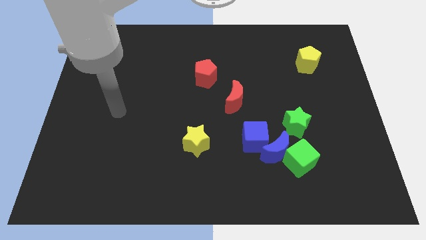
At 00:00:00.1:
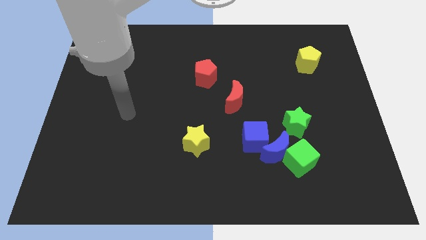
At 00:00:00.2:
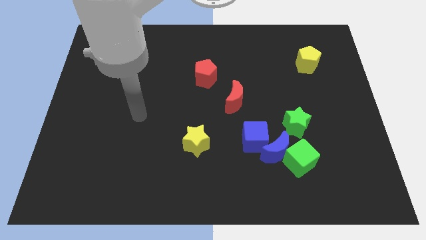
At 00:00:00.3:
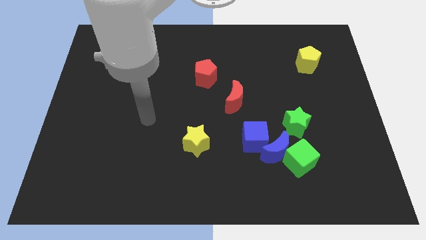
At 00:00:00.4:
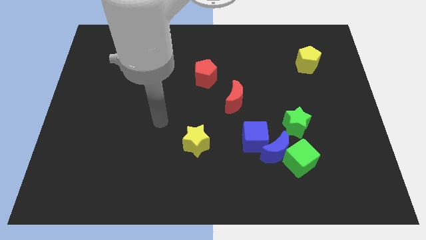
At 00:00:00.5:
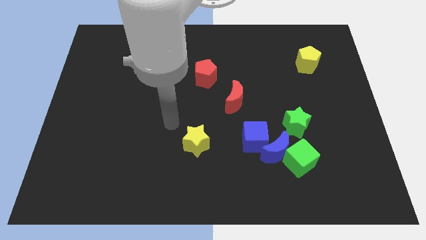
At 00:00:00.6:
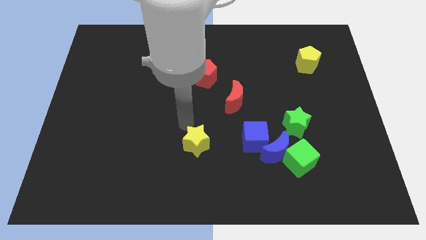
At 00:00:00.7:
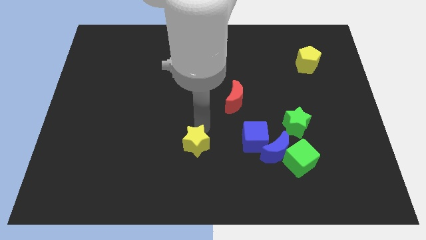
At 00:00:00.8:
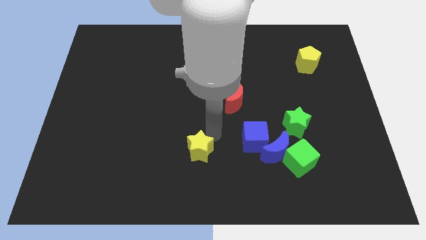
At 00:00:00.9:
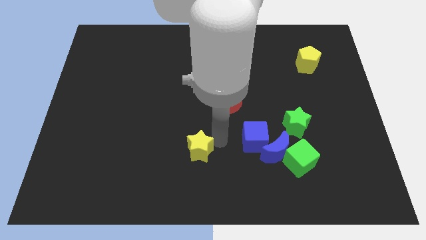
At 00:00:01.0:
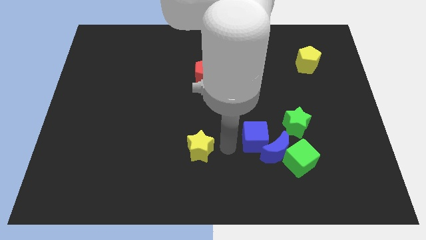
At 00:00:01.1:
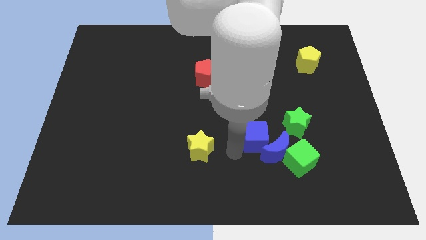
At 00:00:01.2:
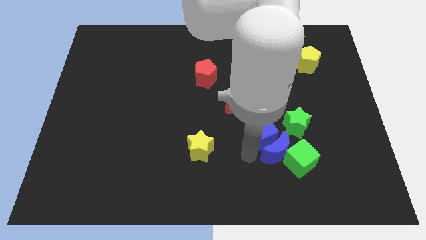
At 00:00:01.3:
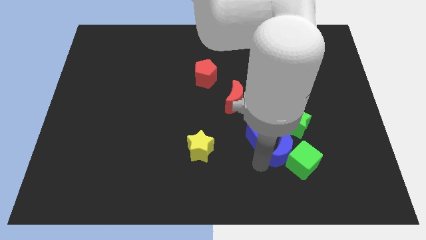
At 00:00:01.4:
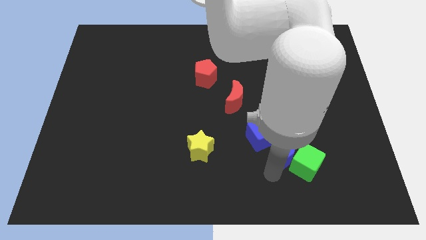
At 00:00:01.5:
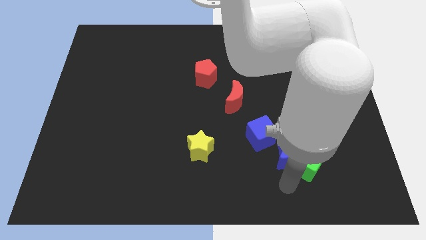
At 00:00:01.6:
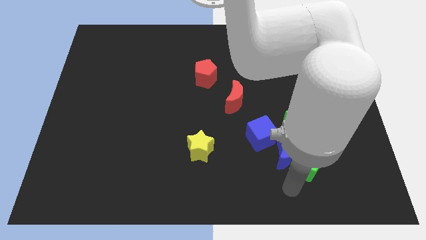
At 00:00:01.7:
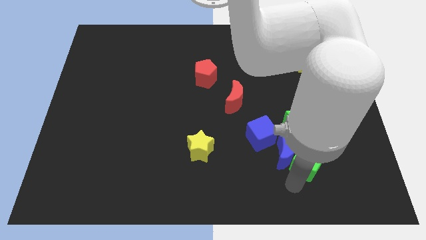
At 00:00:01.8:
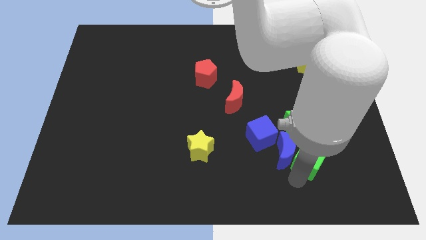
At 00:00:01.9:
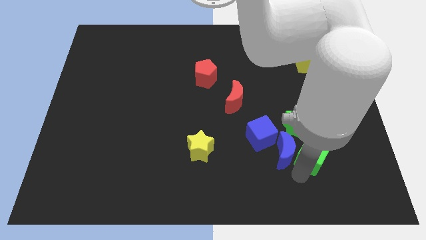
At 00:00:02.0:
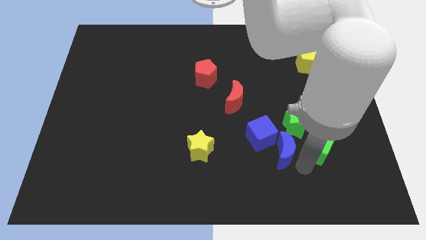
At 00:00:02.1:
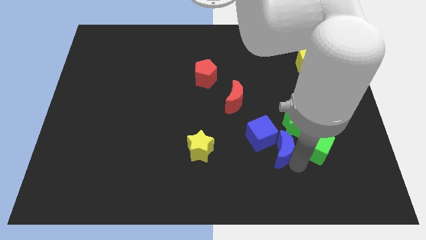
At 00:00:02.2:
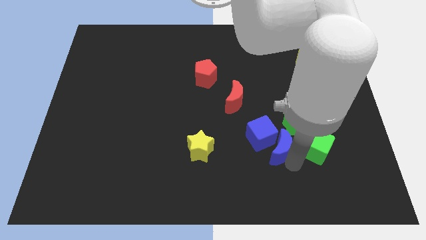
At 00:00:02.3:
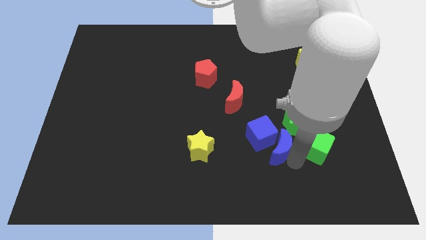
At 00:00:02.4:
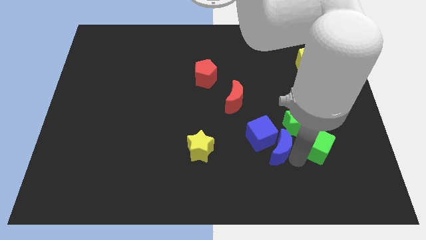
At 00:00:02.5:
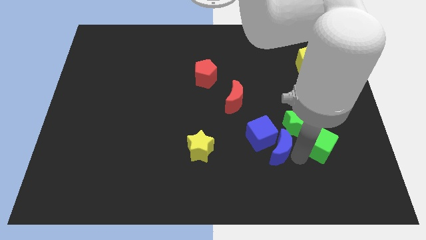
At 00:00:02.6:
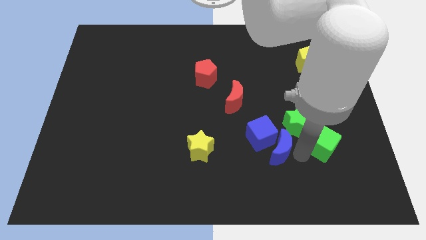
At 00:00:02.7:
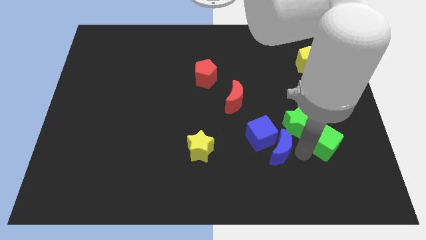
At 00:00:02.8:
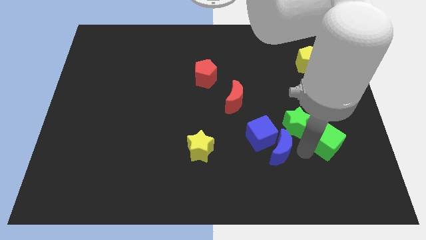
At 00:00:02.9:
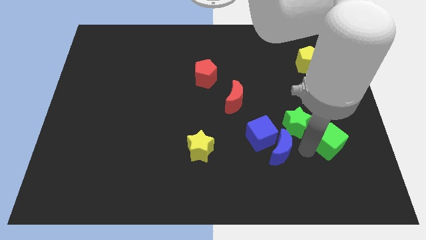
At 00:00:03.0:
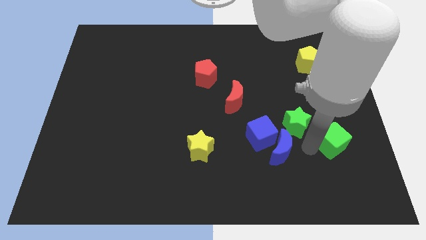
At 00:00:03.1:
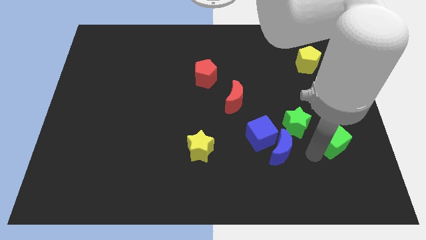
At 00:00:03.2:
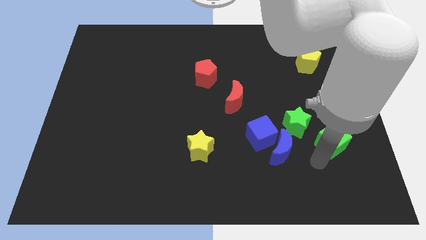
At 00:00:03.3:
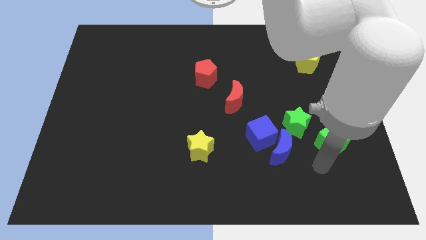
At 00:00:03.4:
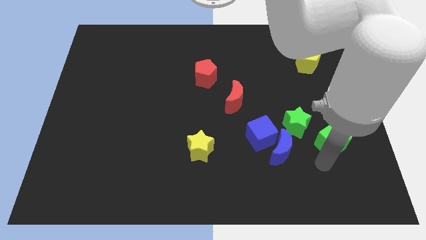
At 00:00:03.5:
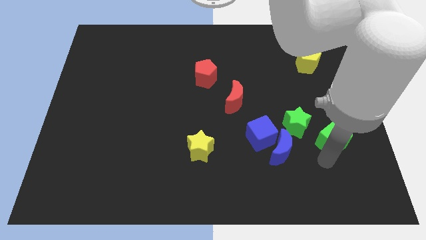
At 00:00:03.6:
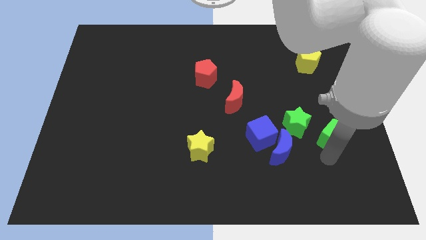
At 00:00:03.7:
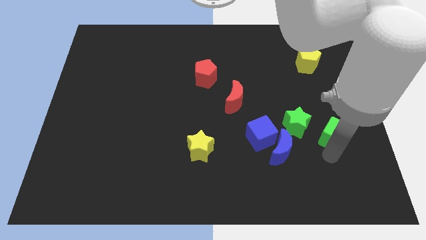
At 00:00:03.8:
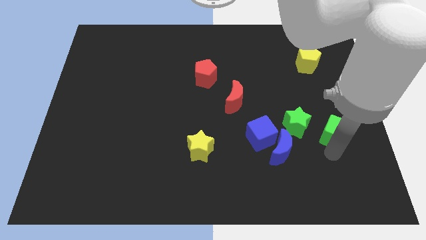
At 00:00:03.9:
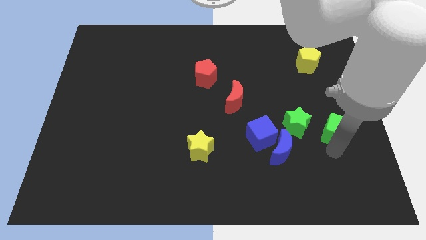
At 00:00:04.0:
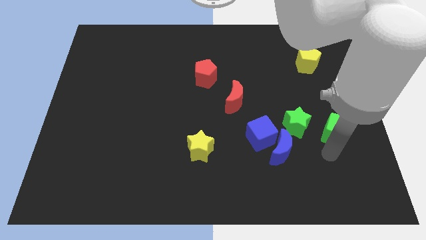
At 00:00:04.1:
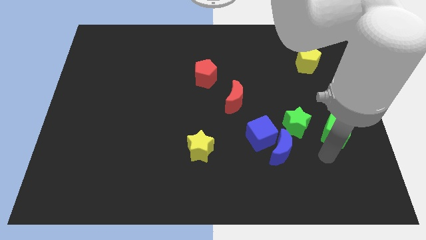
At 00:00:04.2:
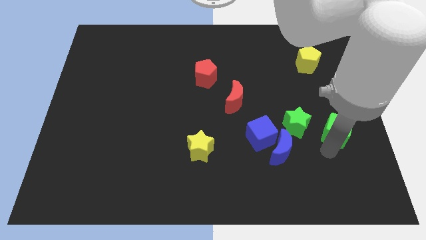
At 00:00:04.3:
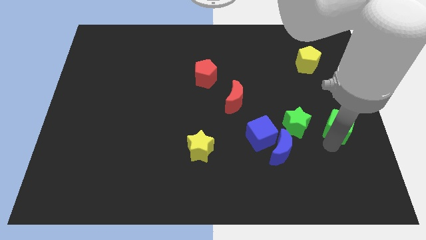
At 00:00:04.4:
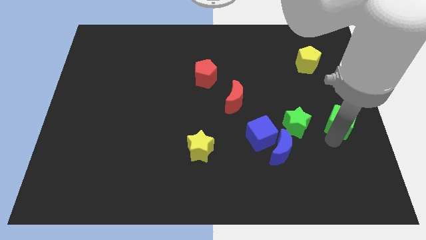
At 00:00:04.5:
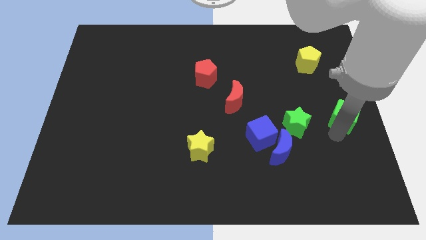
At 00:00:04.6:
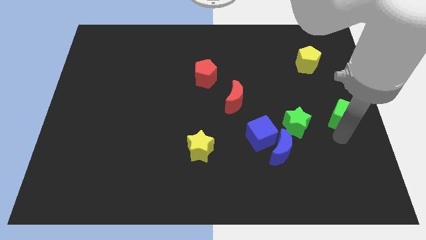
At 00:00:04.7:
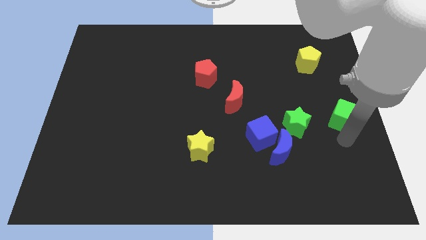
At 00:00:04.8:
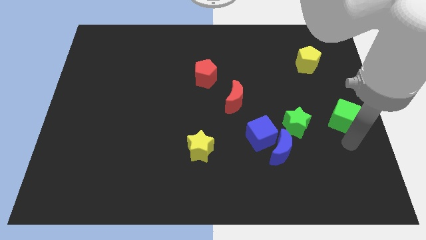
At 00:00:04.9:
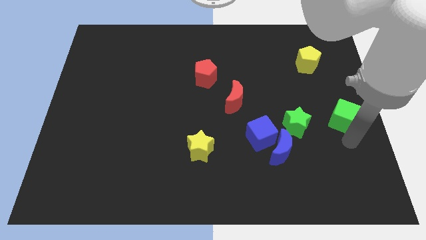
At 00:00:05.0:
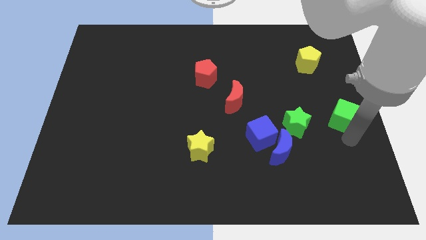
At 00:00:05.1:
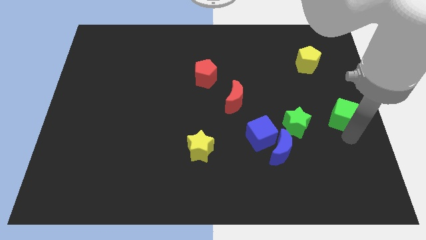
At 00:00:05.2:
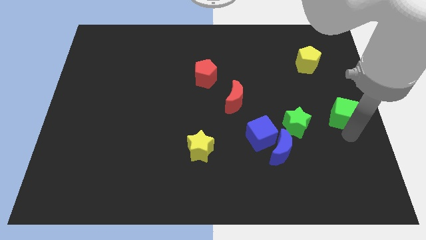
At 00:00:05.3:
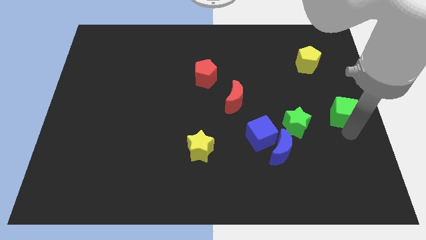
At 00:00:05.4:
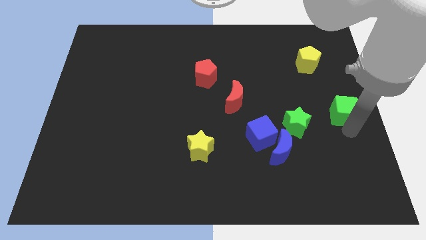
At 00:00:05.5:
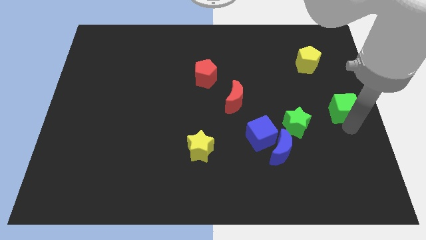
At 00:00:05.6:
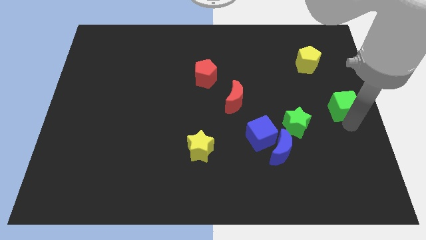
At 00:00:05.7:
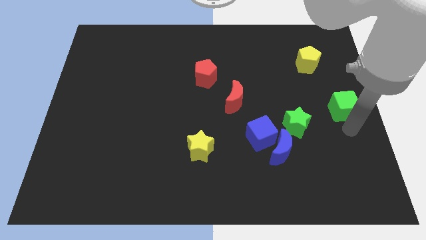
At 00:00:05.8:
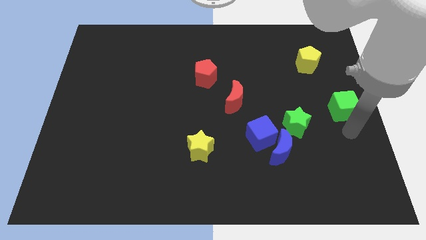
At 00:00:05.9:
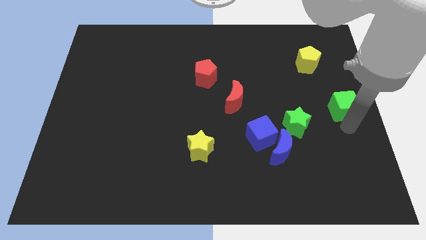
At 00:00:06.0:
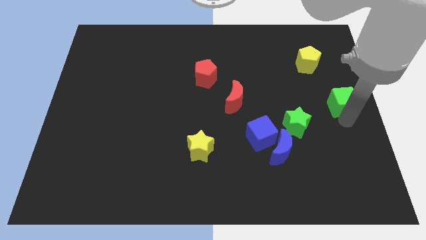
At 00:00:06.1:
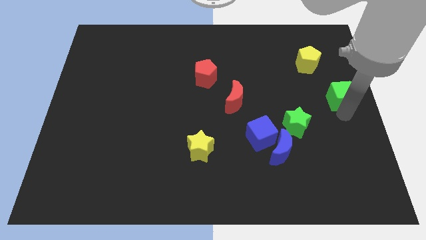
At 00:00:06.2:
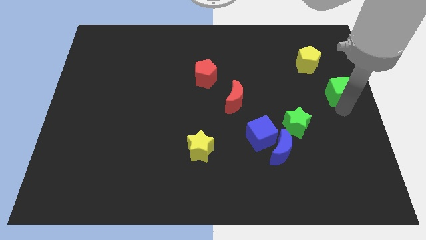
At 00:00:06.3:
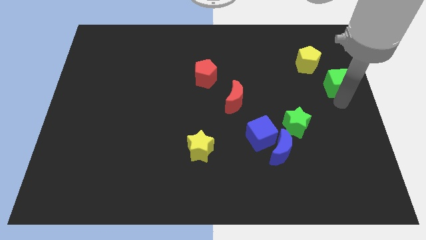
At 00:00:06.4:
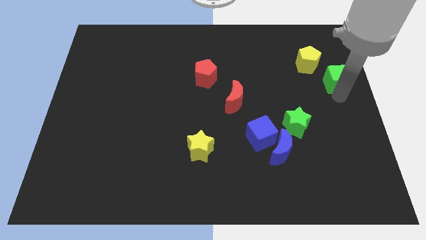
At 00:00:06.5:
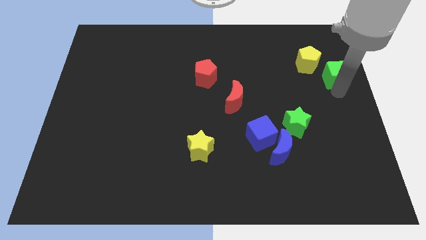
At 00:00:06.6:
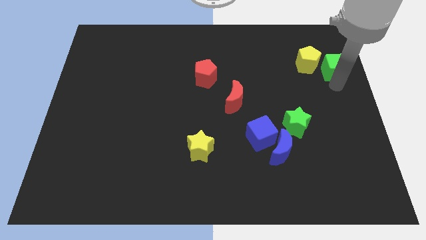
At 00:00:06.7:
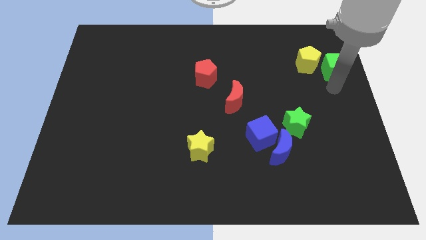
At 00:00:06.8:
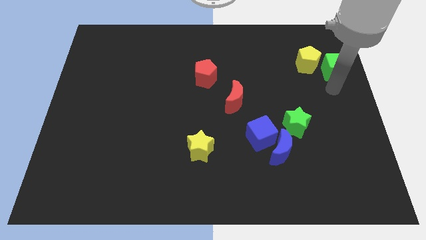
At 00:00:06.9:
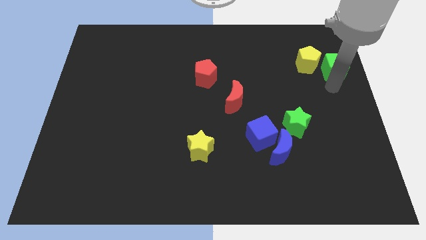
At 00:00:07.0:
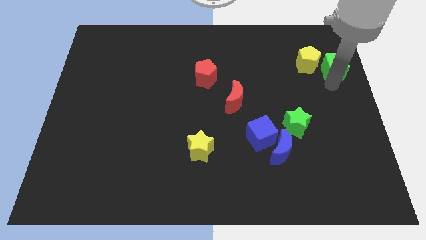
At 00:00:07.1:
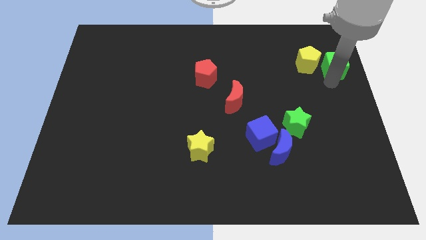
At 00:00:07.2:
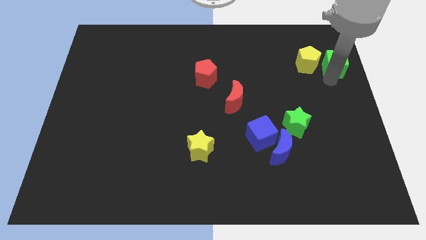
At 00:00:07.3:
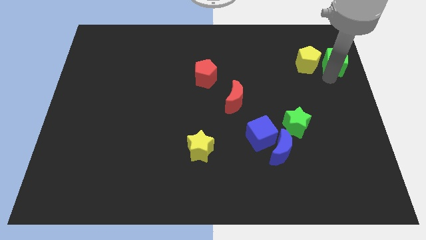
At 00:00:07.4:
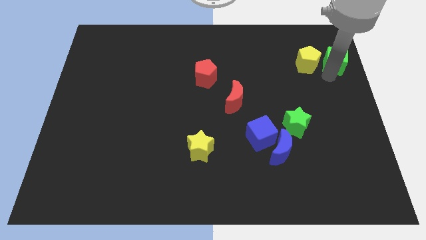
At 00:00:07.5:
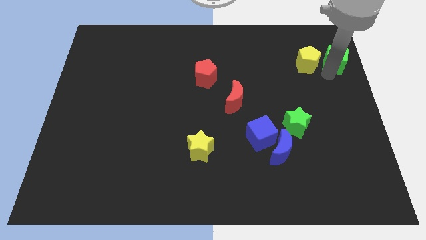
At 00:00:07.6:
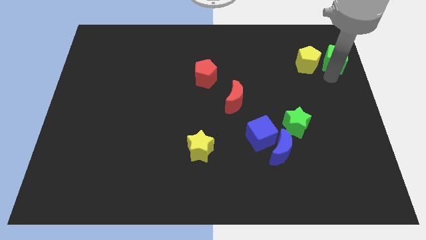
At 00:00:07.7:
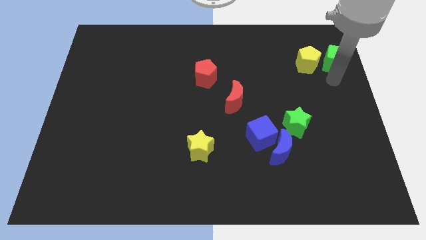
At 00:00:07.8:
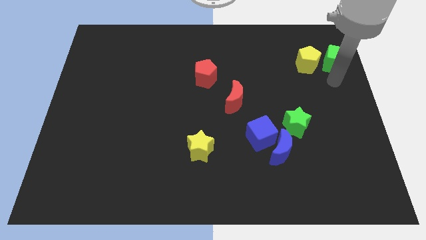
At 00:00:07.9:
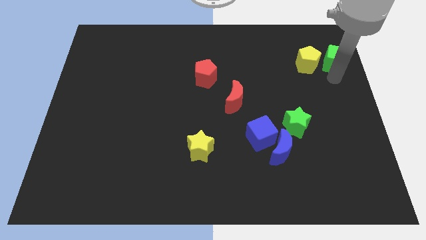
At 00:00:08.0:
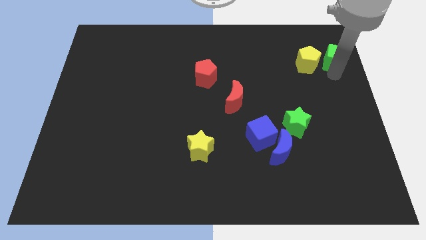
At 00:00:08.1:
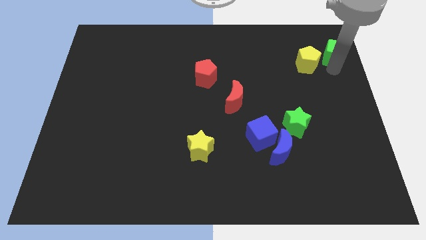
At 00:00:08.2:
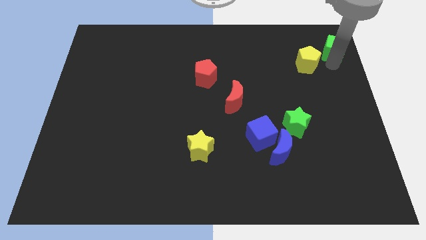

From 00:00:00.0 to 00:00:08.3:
move the green cube to the top right corner
